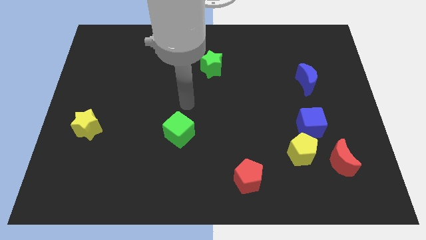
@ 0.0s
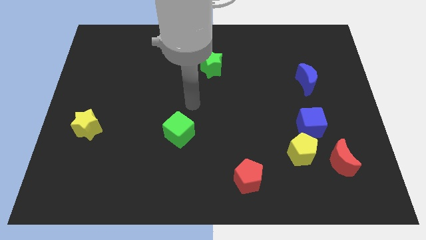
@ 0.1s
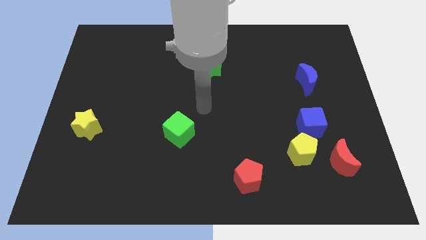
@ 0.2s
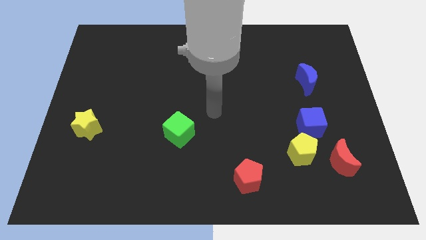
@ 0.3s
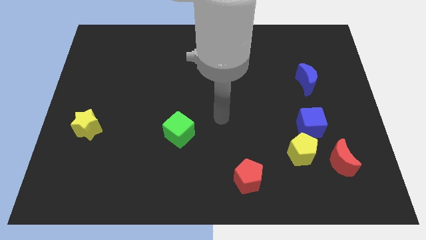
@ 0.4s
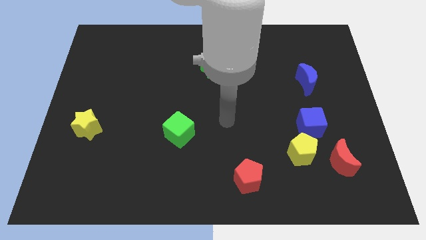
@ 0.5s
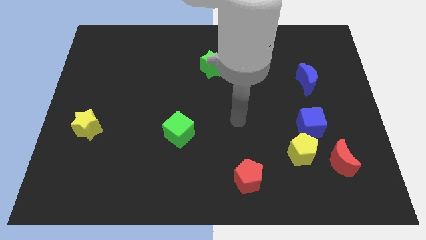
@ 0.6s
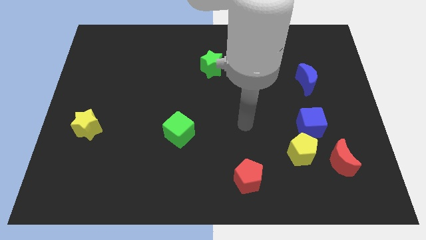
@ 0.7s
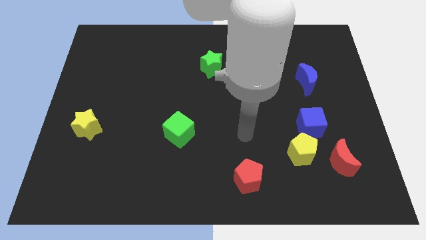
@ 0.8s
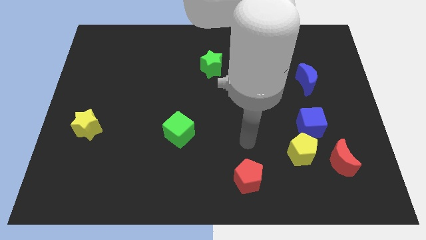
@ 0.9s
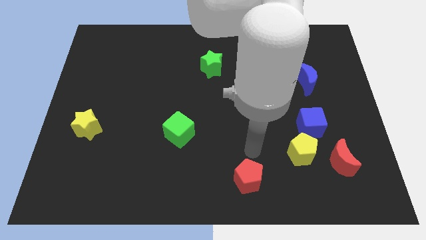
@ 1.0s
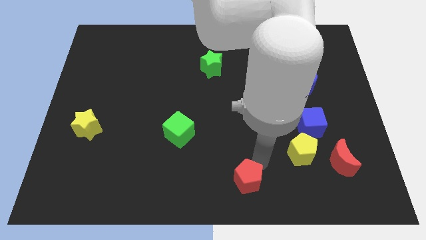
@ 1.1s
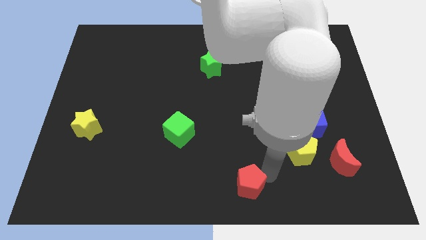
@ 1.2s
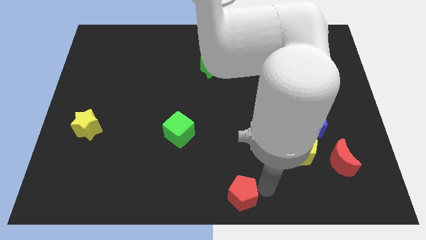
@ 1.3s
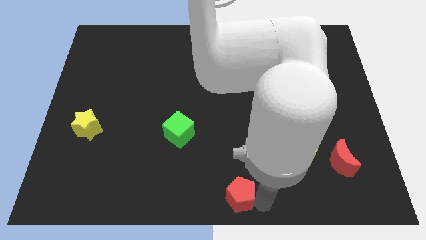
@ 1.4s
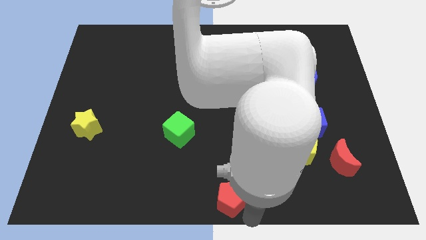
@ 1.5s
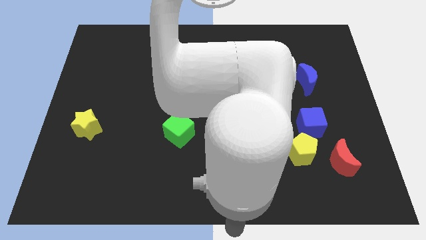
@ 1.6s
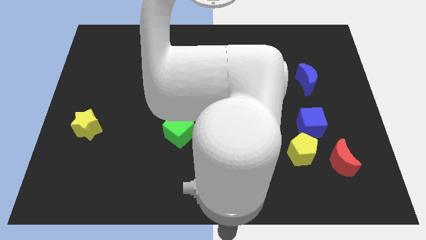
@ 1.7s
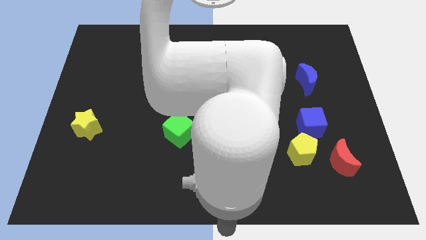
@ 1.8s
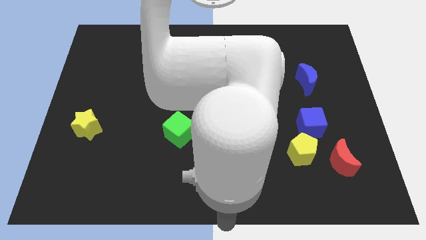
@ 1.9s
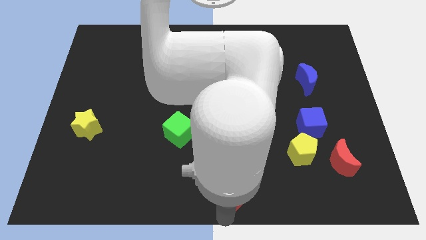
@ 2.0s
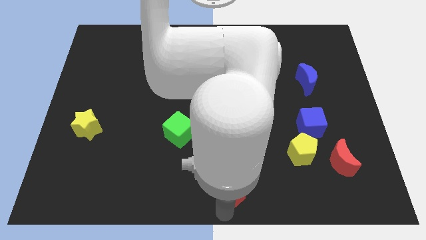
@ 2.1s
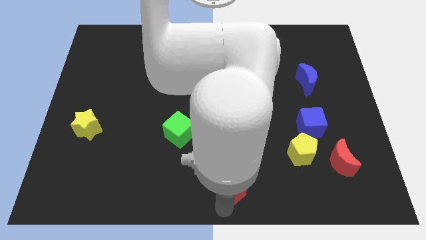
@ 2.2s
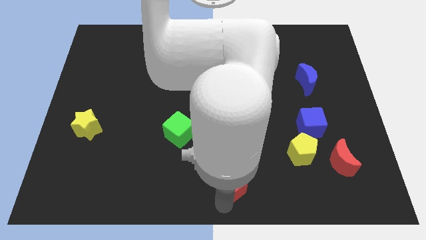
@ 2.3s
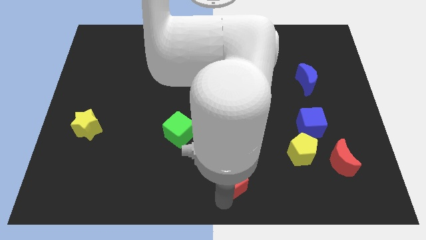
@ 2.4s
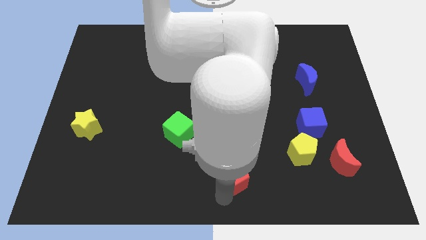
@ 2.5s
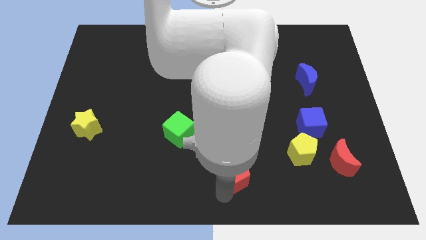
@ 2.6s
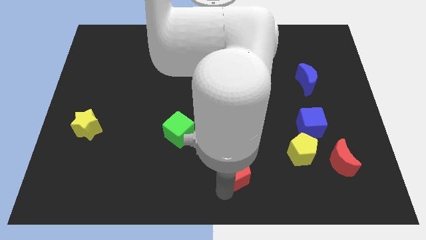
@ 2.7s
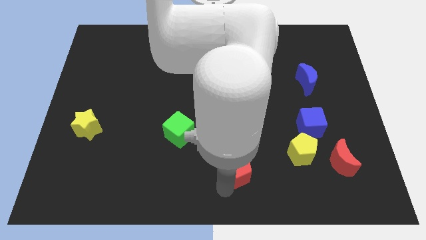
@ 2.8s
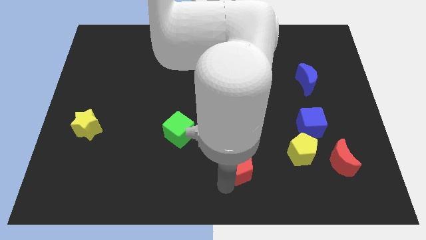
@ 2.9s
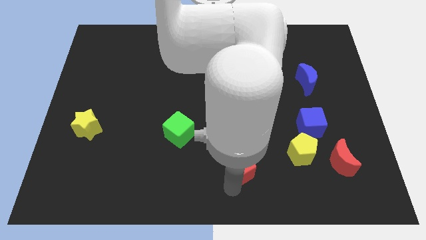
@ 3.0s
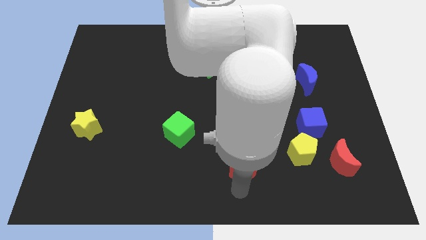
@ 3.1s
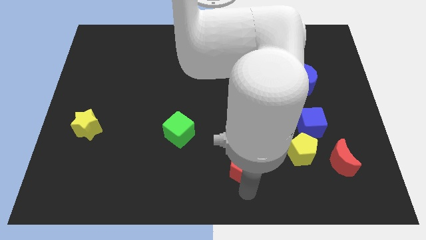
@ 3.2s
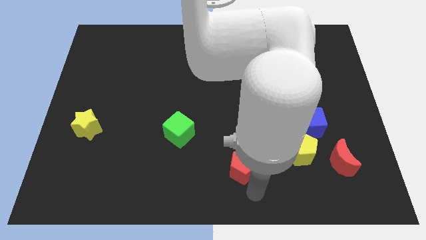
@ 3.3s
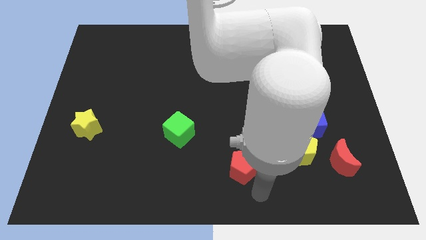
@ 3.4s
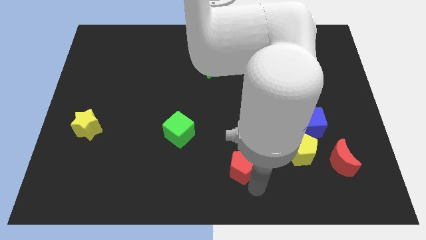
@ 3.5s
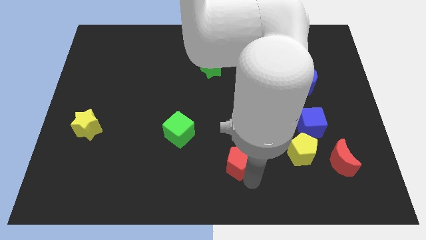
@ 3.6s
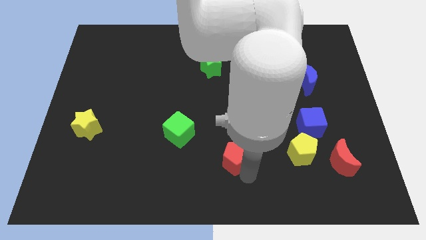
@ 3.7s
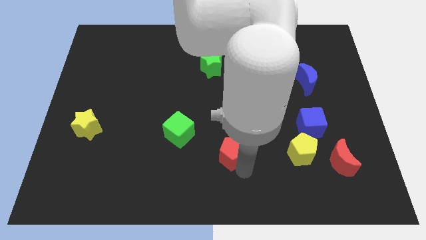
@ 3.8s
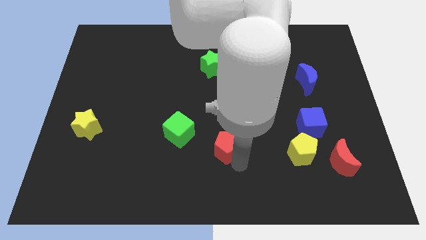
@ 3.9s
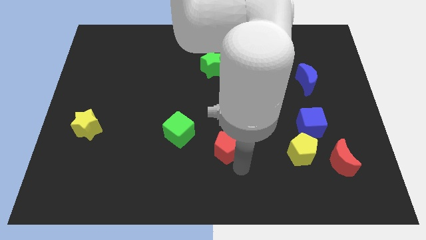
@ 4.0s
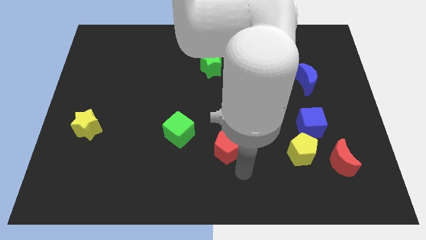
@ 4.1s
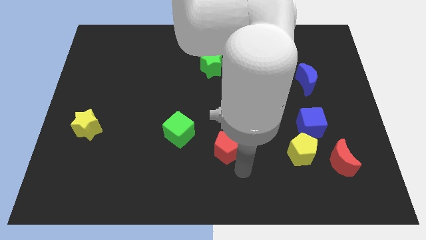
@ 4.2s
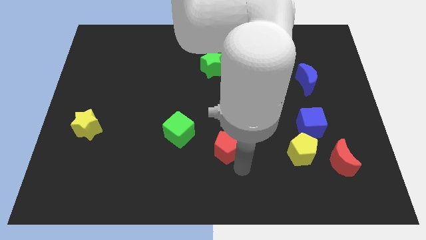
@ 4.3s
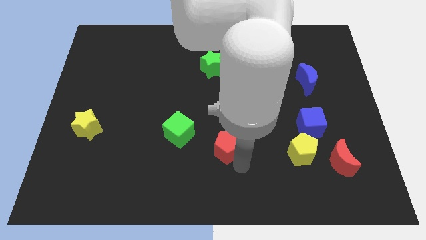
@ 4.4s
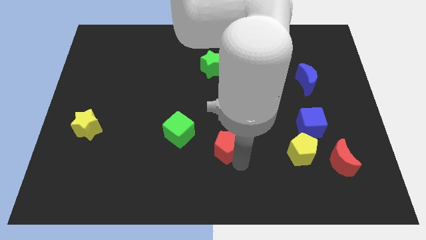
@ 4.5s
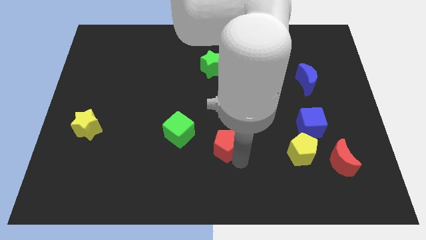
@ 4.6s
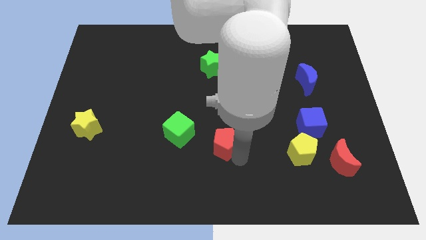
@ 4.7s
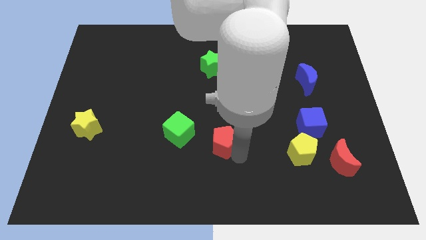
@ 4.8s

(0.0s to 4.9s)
slide the red pentagon to the center

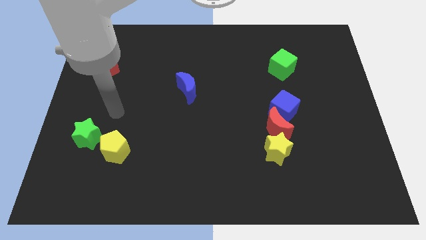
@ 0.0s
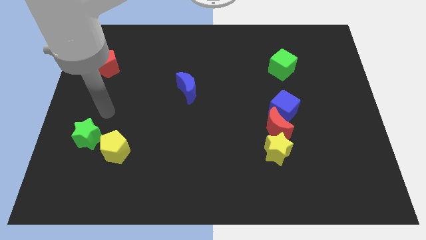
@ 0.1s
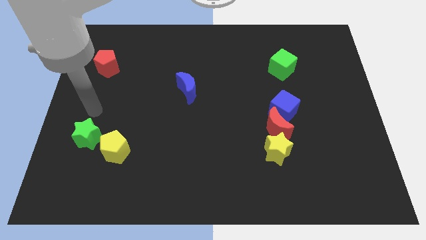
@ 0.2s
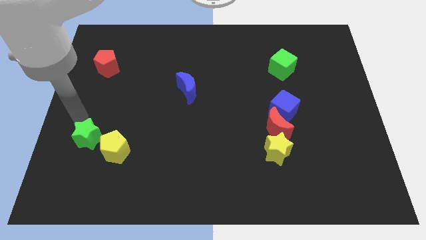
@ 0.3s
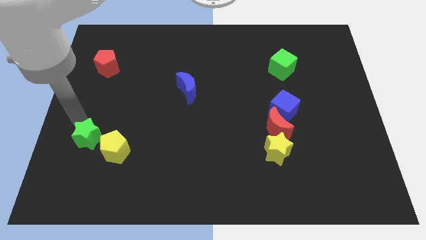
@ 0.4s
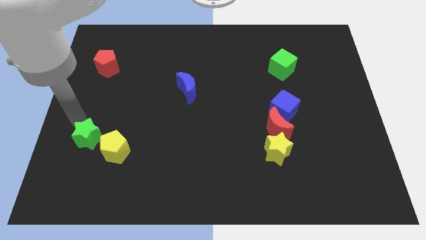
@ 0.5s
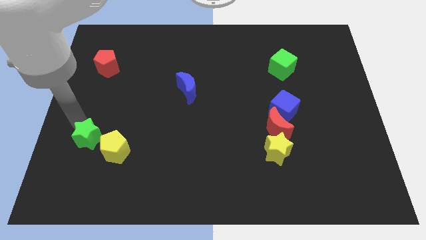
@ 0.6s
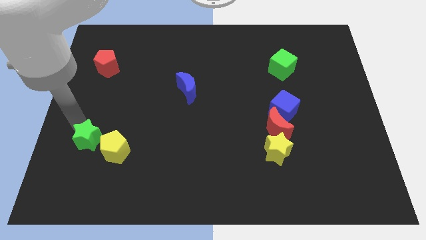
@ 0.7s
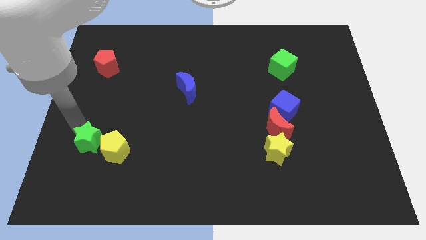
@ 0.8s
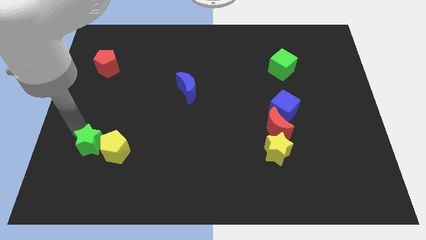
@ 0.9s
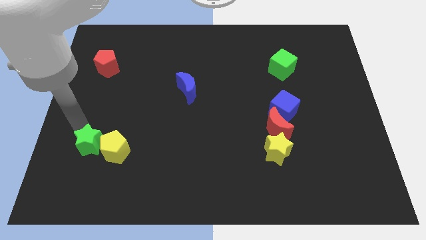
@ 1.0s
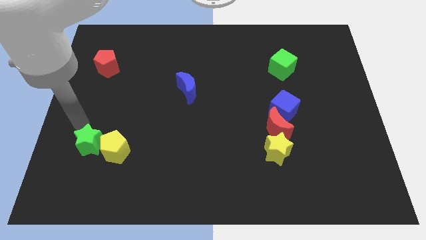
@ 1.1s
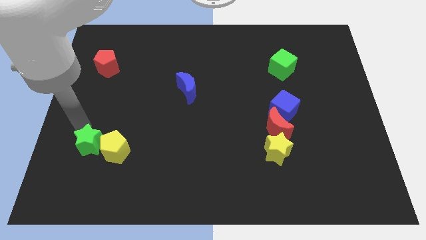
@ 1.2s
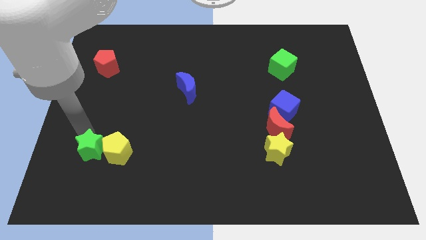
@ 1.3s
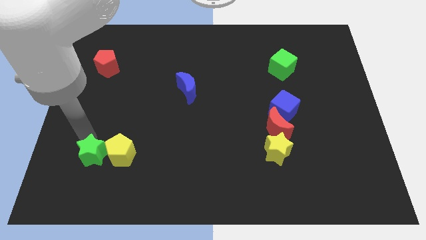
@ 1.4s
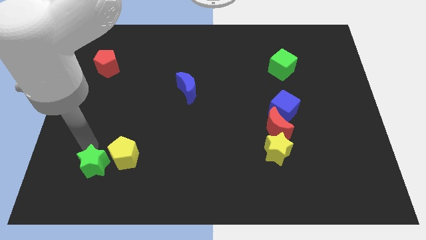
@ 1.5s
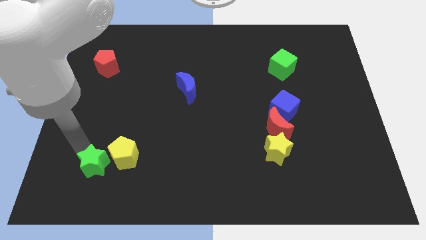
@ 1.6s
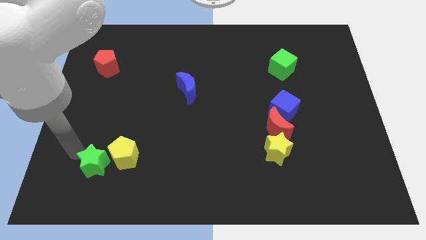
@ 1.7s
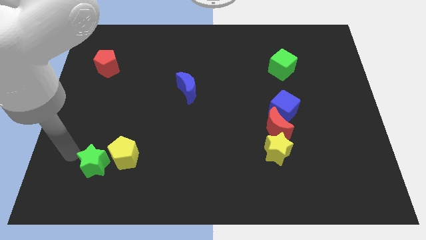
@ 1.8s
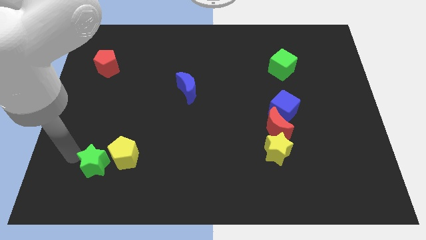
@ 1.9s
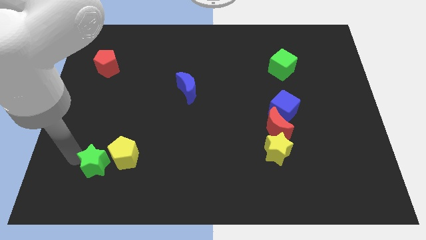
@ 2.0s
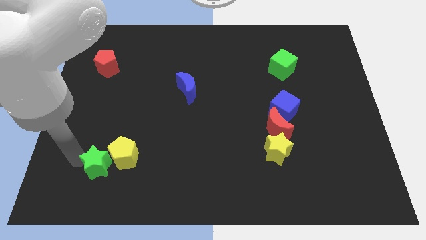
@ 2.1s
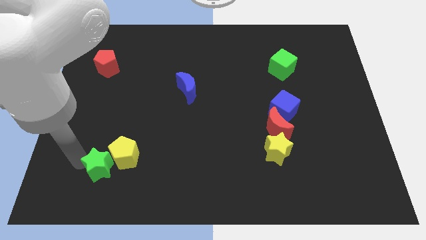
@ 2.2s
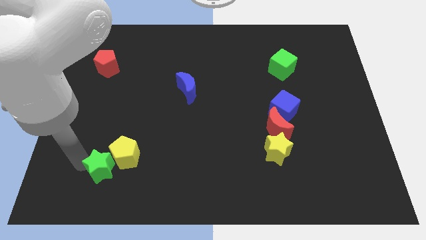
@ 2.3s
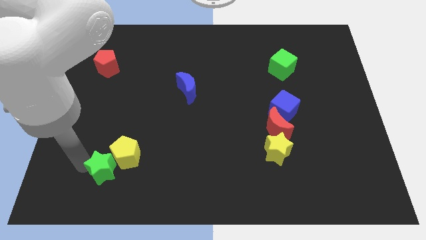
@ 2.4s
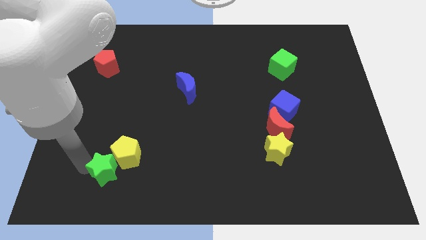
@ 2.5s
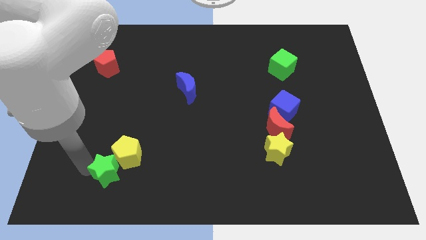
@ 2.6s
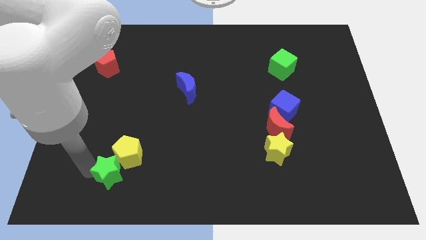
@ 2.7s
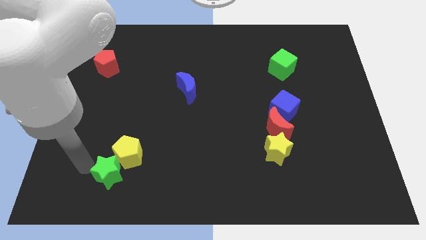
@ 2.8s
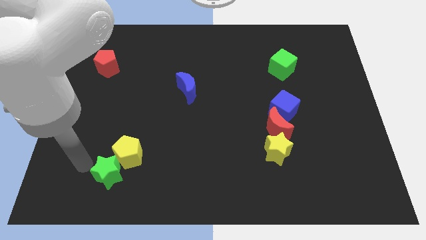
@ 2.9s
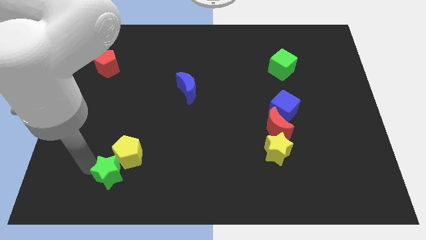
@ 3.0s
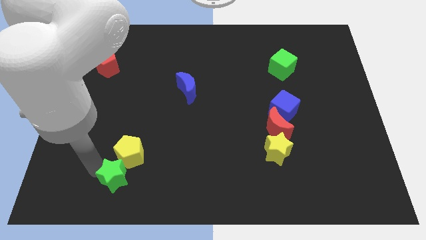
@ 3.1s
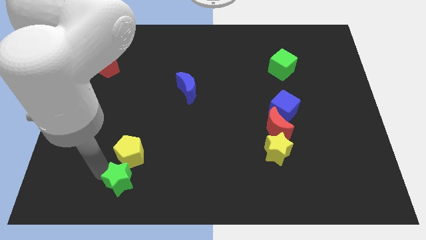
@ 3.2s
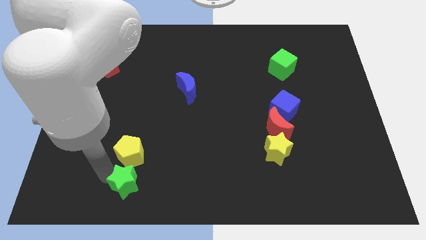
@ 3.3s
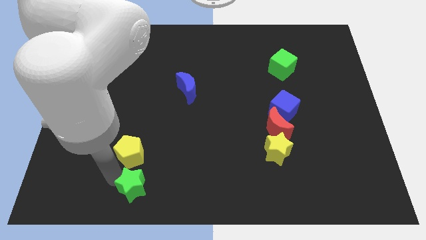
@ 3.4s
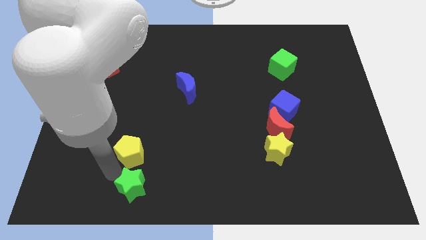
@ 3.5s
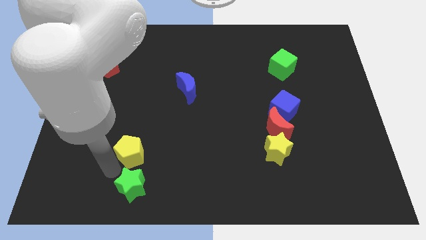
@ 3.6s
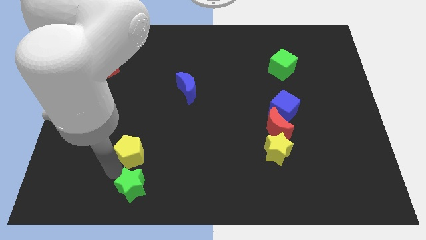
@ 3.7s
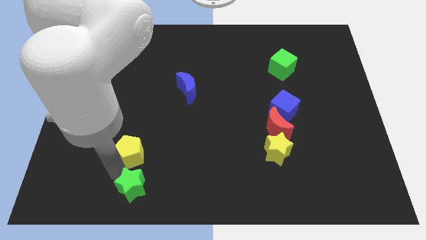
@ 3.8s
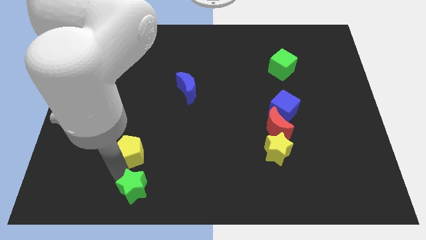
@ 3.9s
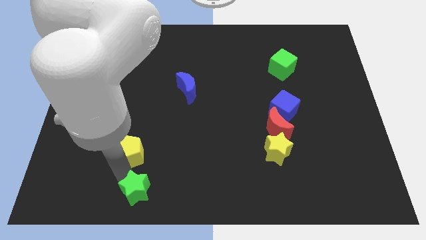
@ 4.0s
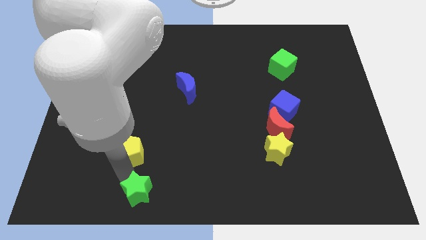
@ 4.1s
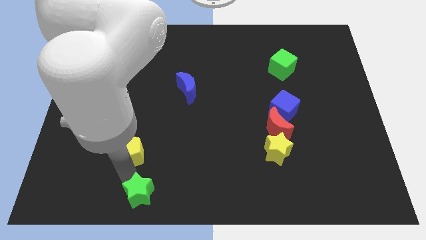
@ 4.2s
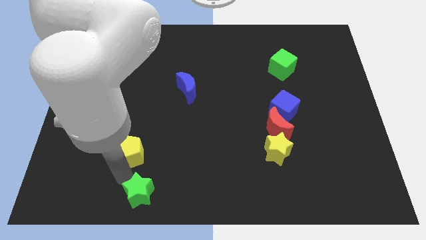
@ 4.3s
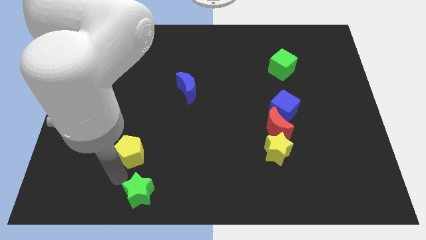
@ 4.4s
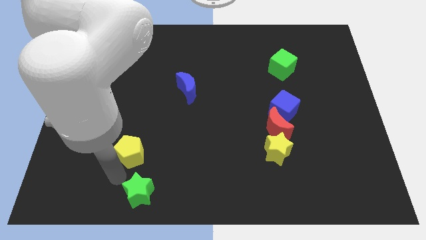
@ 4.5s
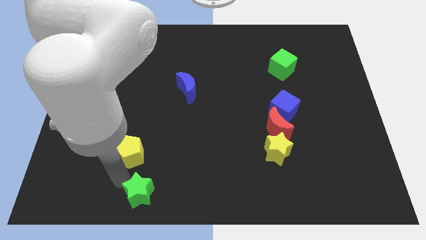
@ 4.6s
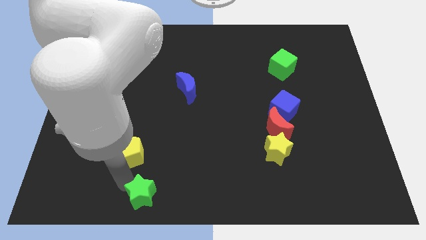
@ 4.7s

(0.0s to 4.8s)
put the green star to the bottom side
